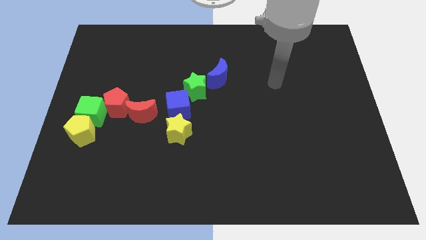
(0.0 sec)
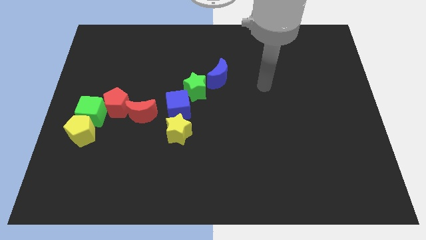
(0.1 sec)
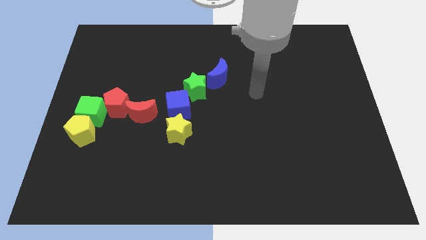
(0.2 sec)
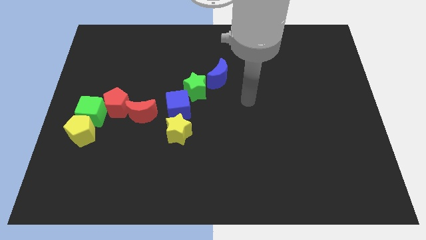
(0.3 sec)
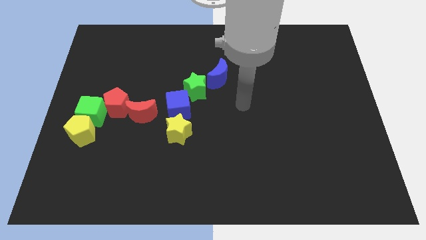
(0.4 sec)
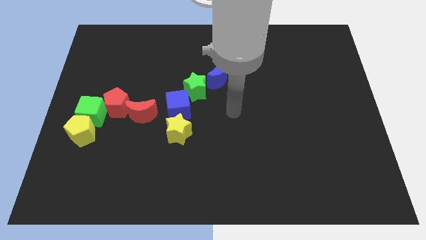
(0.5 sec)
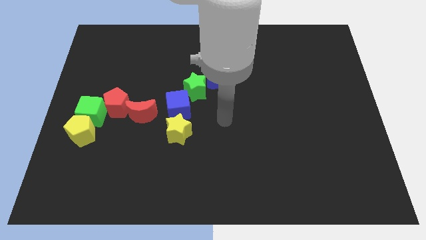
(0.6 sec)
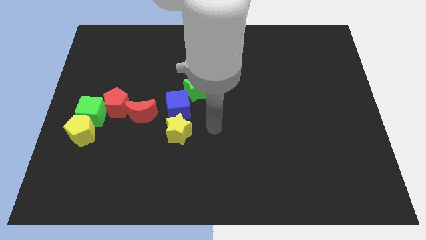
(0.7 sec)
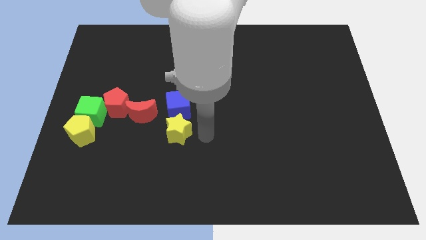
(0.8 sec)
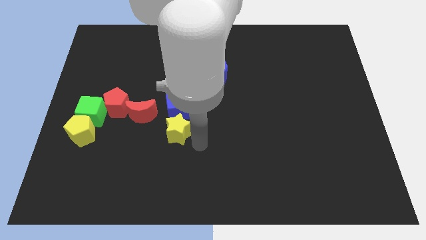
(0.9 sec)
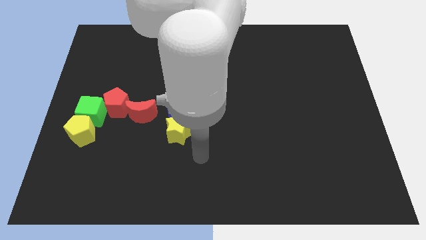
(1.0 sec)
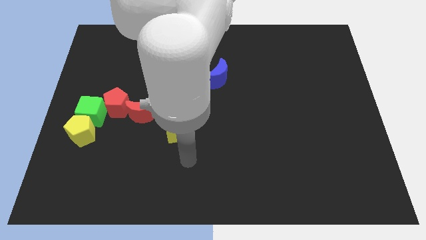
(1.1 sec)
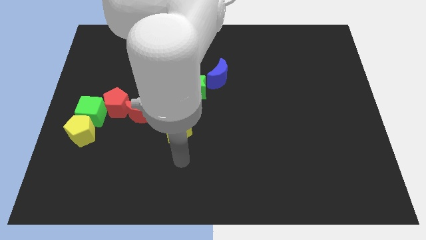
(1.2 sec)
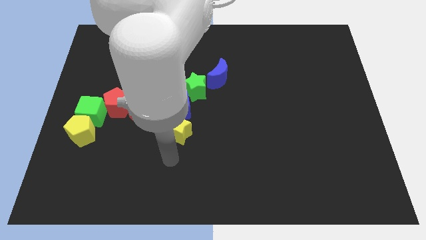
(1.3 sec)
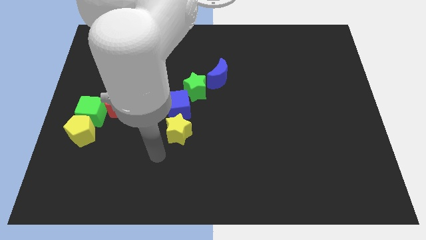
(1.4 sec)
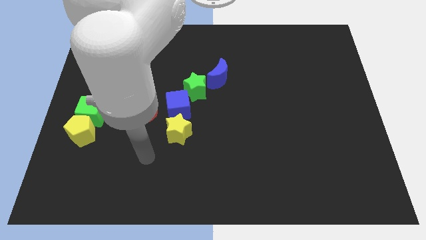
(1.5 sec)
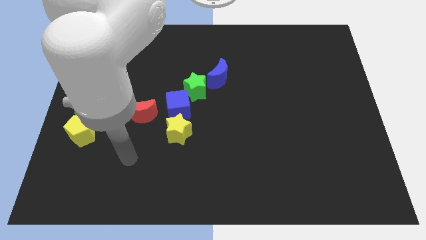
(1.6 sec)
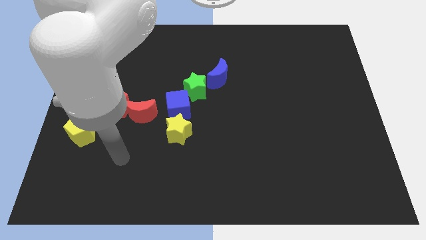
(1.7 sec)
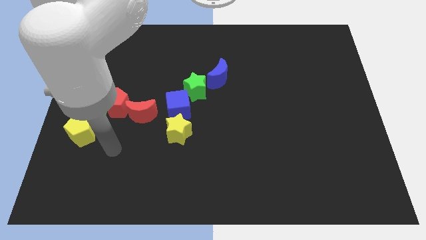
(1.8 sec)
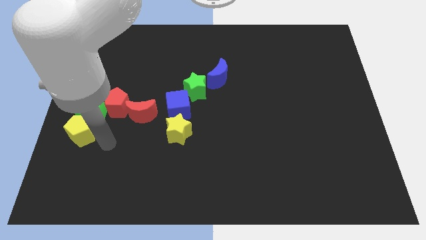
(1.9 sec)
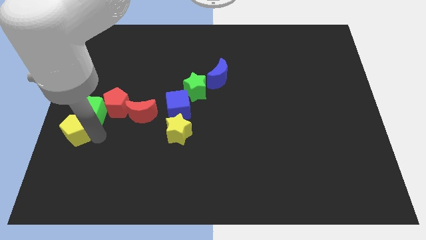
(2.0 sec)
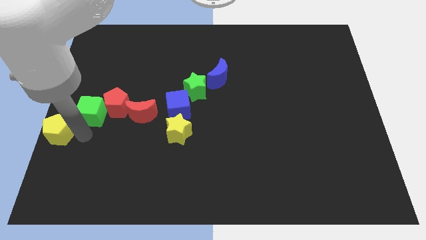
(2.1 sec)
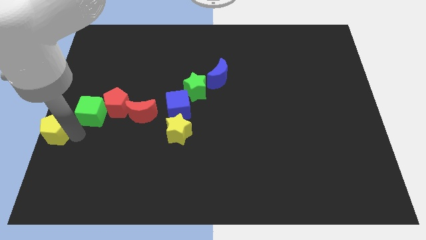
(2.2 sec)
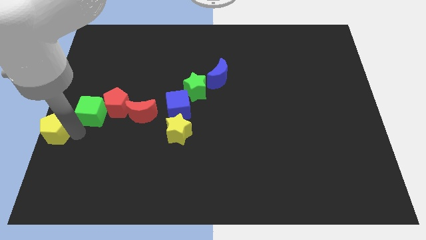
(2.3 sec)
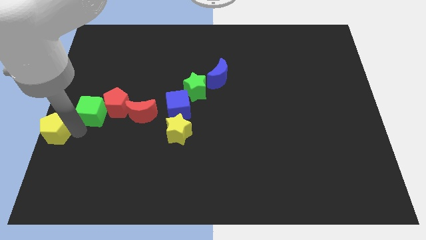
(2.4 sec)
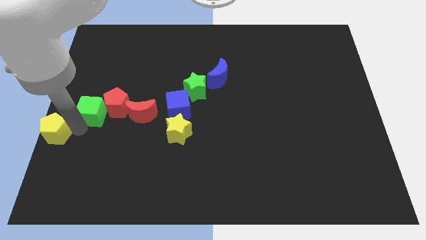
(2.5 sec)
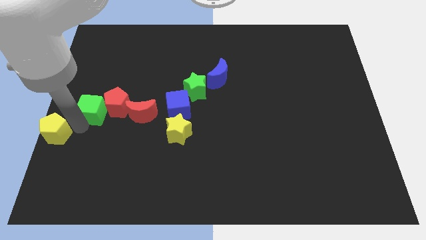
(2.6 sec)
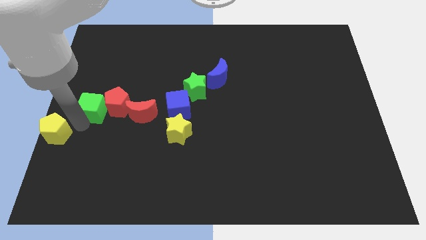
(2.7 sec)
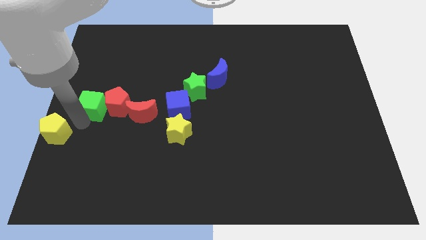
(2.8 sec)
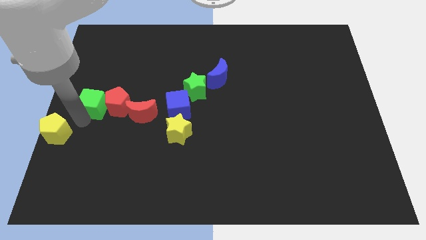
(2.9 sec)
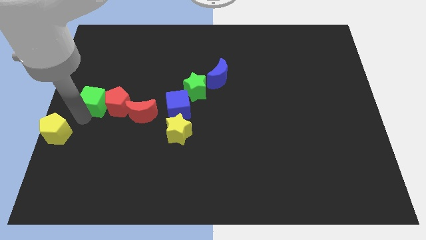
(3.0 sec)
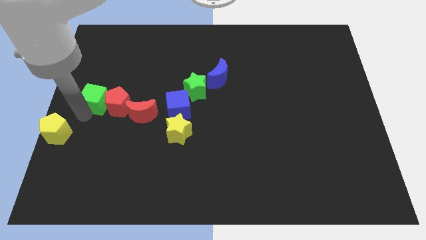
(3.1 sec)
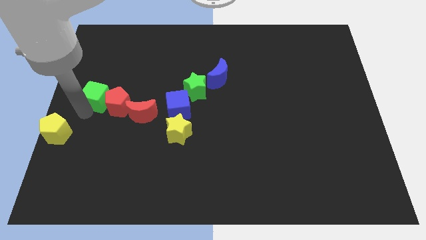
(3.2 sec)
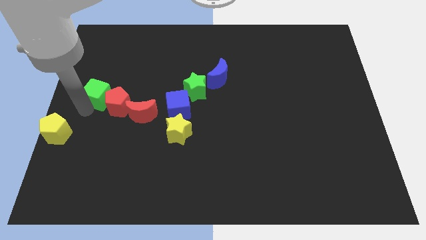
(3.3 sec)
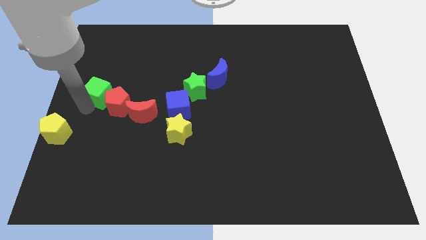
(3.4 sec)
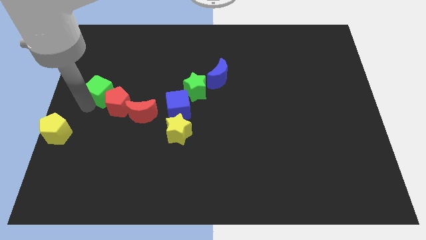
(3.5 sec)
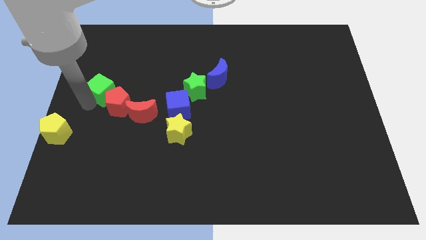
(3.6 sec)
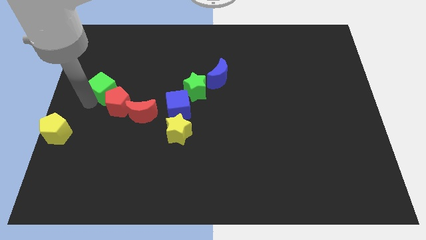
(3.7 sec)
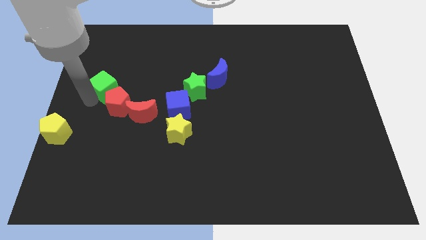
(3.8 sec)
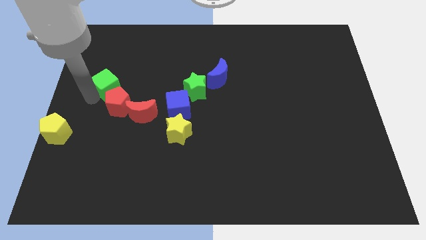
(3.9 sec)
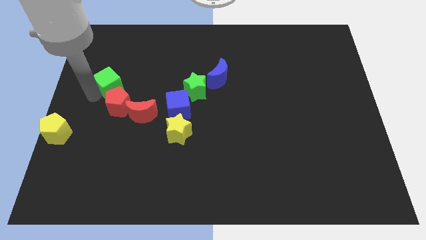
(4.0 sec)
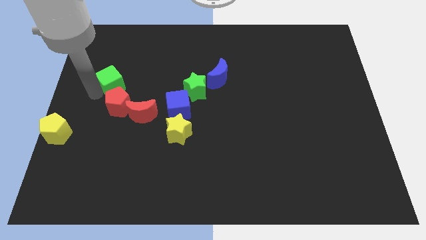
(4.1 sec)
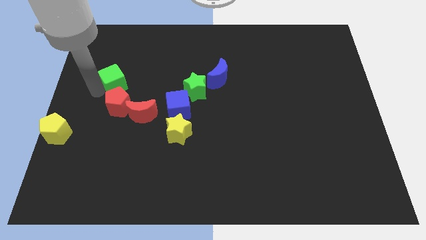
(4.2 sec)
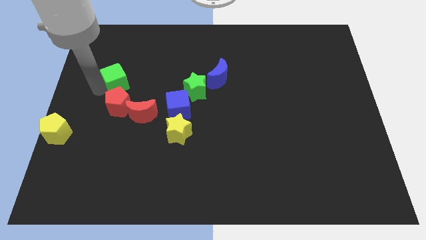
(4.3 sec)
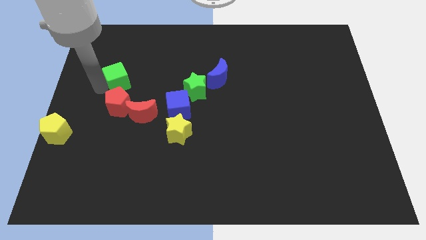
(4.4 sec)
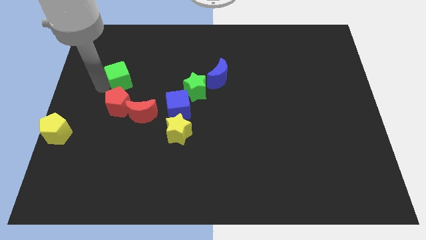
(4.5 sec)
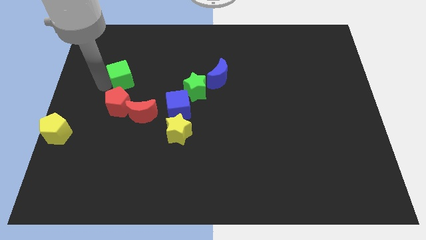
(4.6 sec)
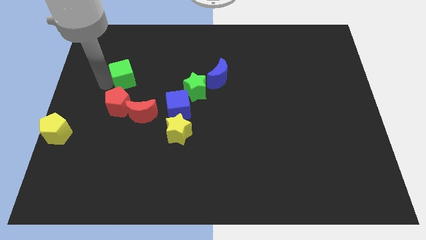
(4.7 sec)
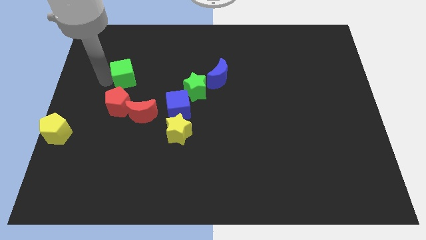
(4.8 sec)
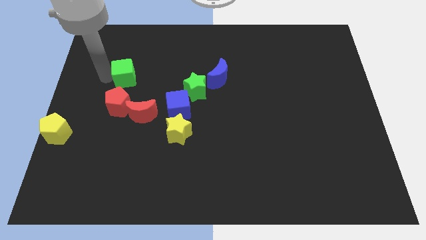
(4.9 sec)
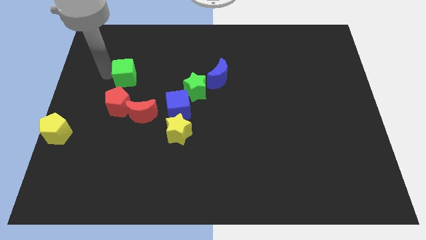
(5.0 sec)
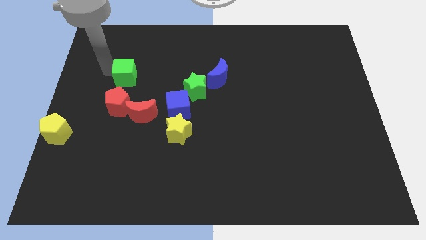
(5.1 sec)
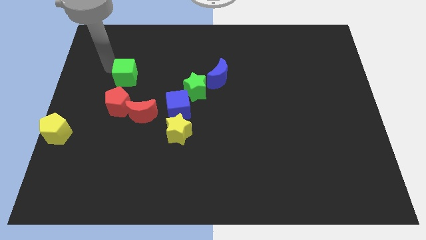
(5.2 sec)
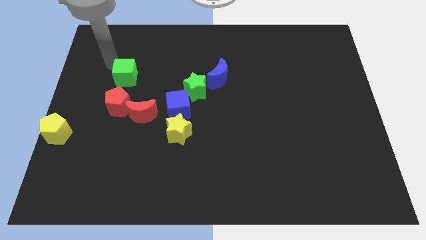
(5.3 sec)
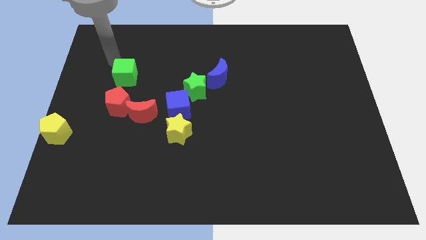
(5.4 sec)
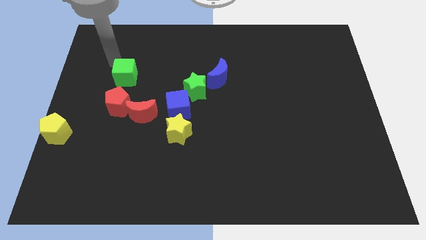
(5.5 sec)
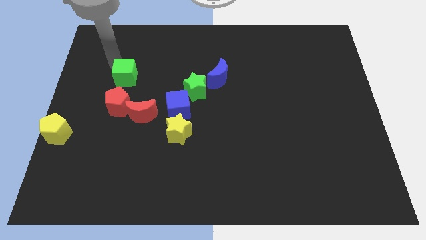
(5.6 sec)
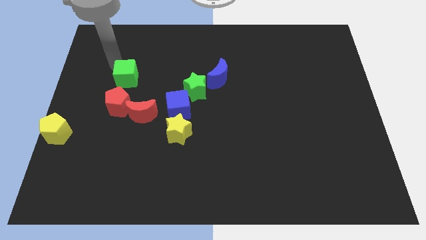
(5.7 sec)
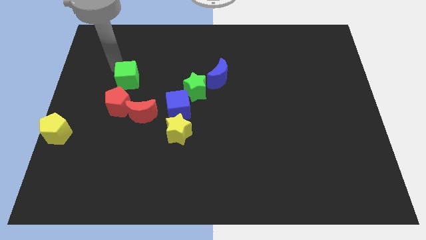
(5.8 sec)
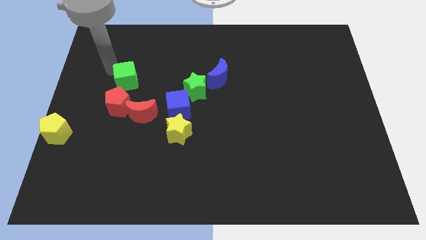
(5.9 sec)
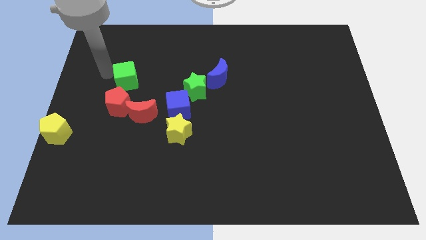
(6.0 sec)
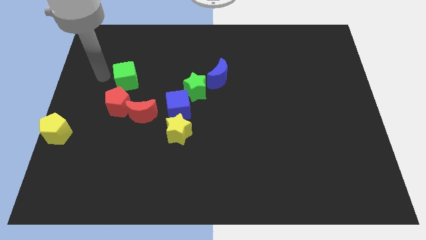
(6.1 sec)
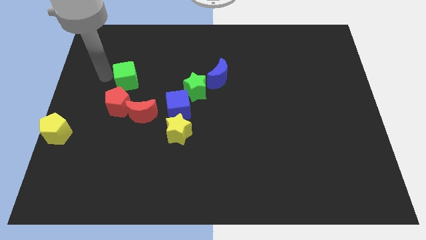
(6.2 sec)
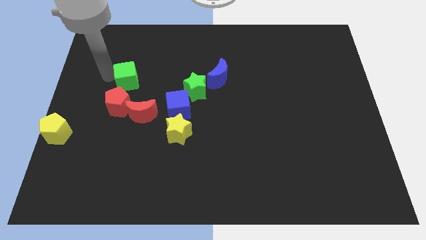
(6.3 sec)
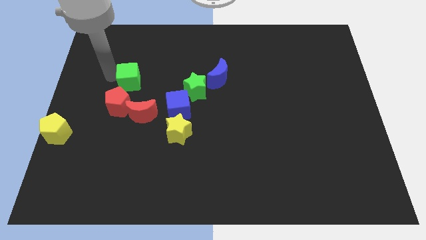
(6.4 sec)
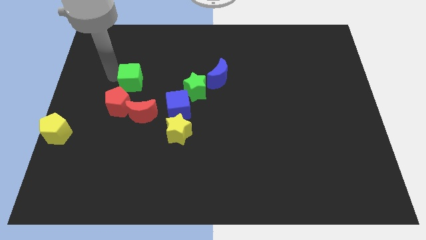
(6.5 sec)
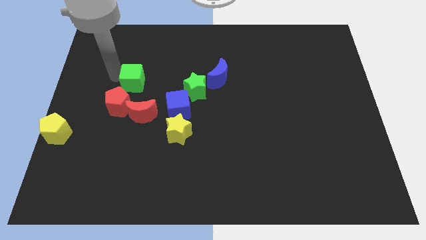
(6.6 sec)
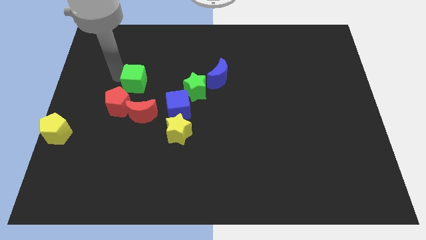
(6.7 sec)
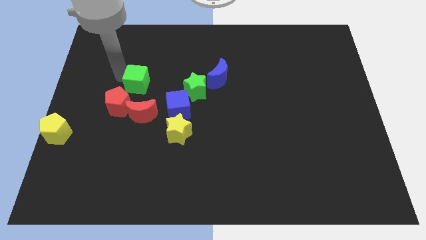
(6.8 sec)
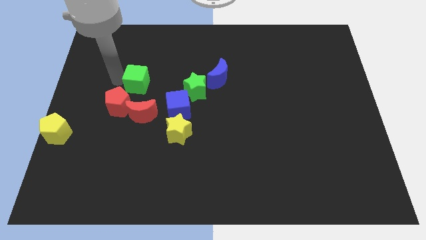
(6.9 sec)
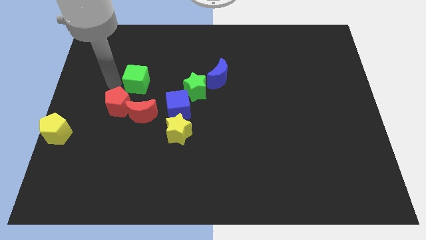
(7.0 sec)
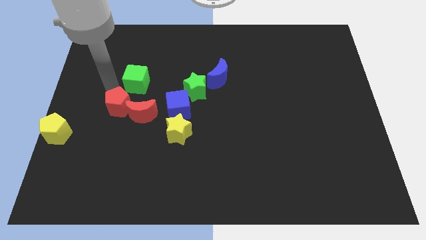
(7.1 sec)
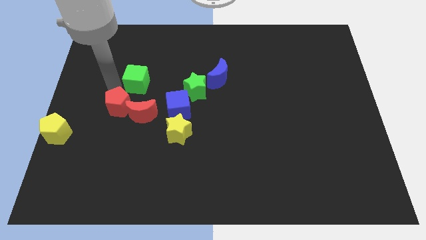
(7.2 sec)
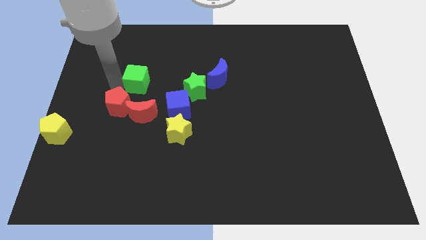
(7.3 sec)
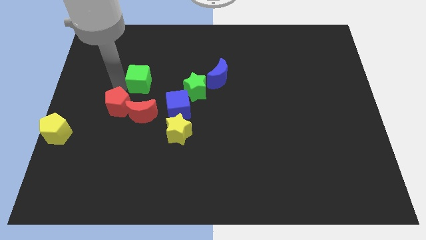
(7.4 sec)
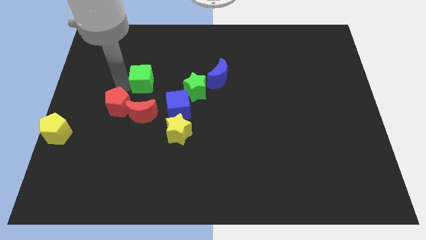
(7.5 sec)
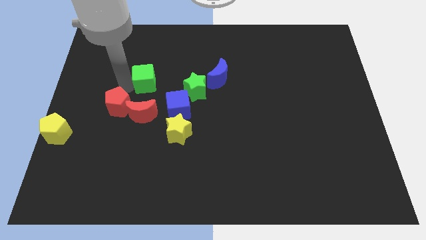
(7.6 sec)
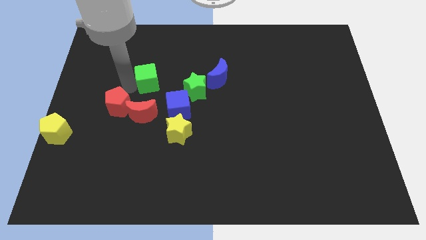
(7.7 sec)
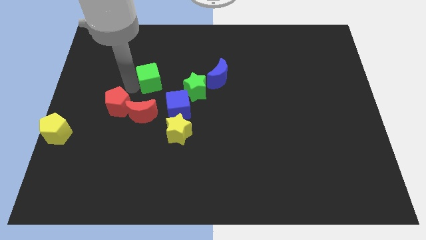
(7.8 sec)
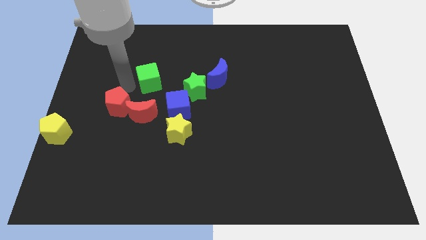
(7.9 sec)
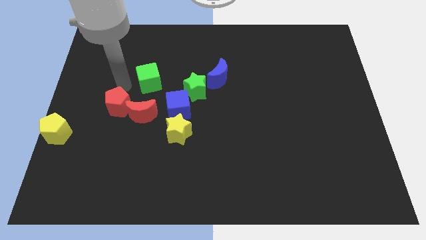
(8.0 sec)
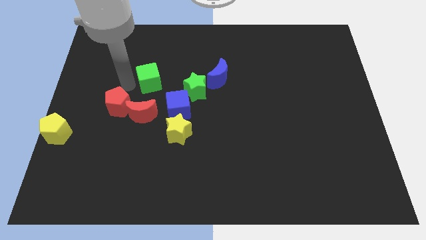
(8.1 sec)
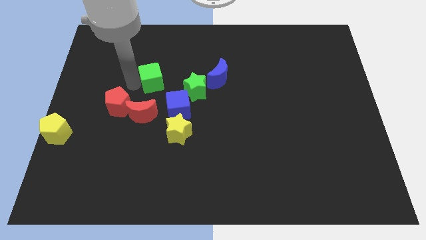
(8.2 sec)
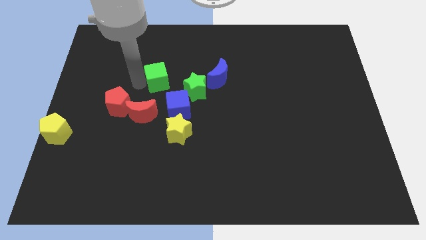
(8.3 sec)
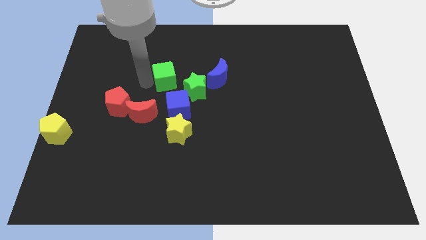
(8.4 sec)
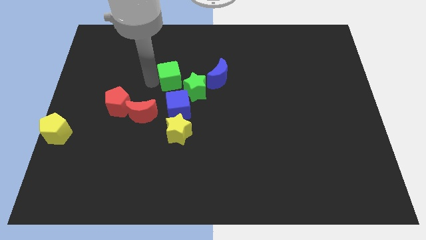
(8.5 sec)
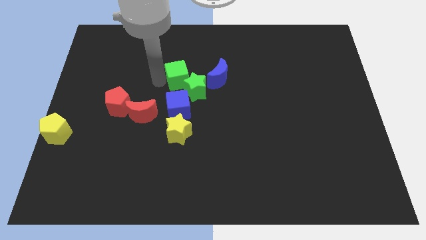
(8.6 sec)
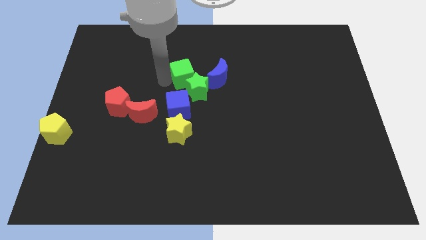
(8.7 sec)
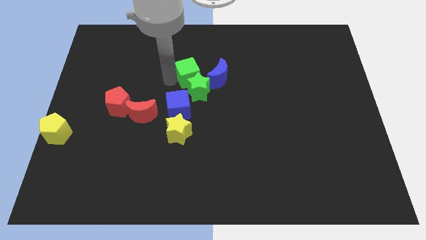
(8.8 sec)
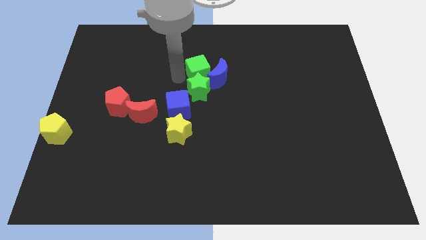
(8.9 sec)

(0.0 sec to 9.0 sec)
slide the green cube to the blue moon
